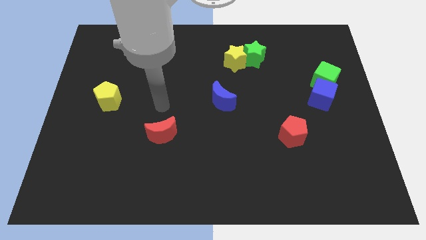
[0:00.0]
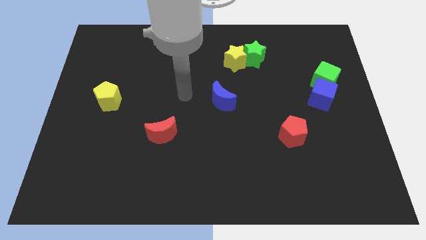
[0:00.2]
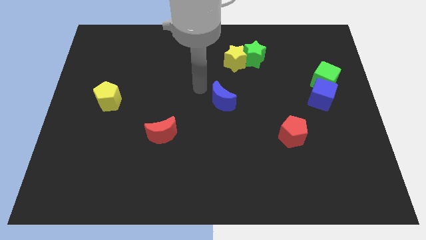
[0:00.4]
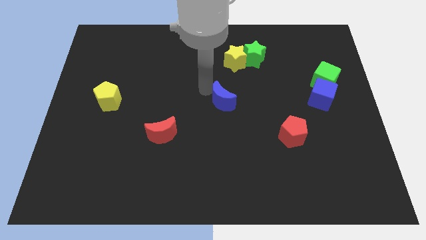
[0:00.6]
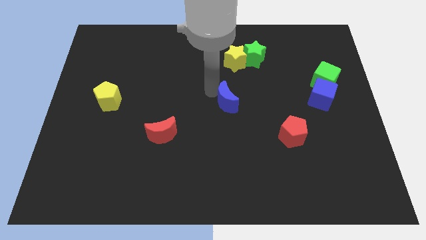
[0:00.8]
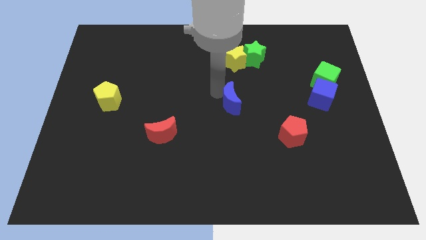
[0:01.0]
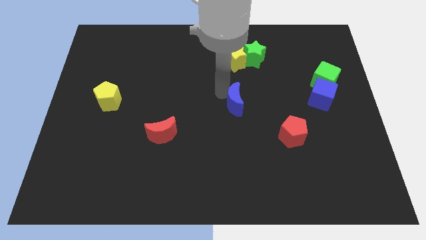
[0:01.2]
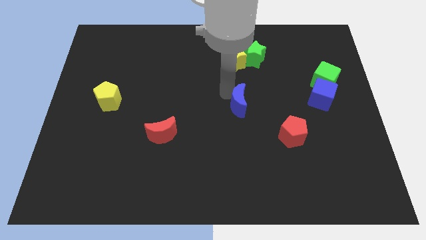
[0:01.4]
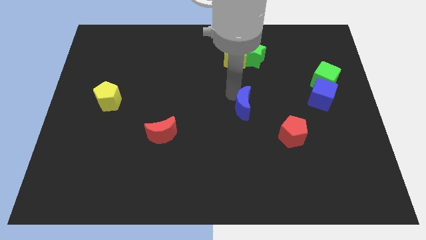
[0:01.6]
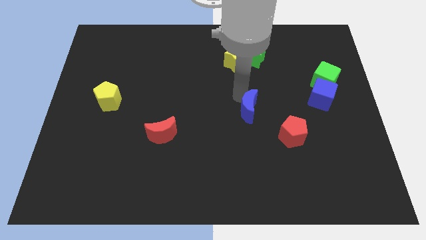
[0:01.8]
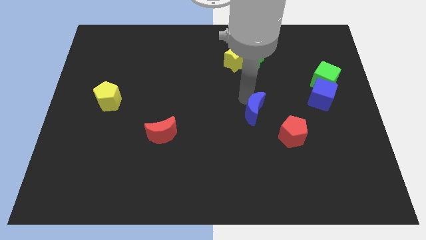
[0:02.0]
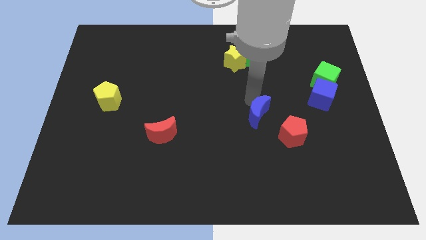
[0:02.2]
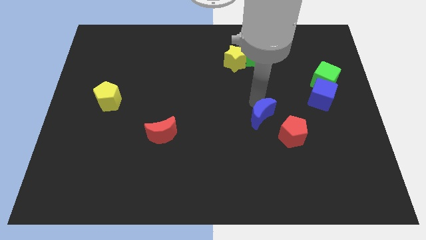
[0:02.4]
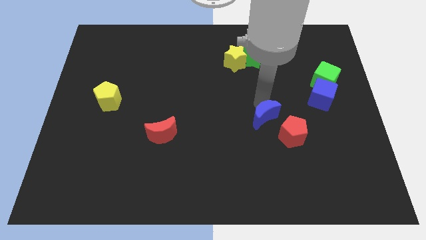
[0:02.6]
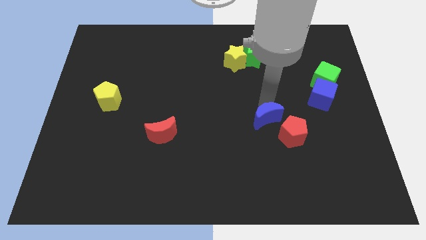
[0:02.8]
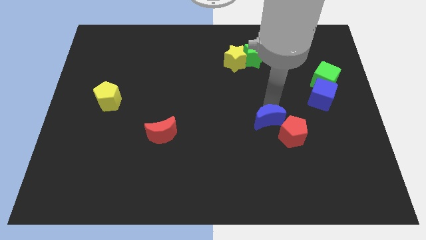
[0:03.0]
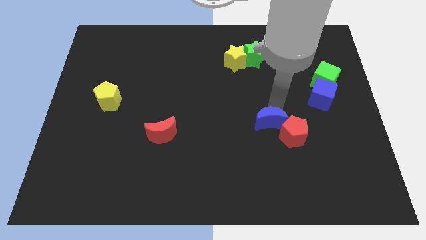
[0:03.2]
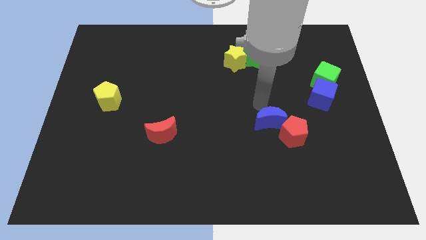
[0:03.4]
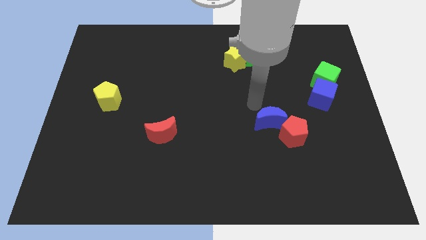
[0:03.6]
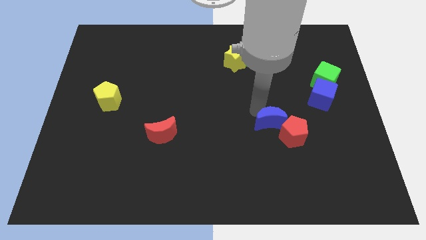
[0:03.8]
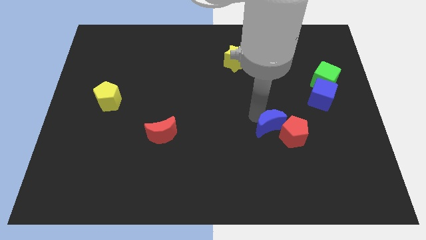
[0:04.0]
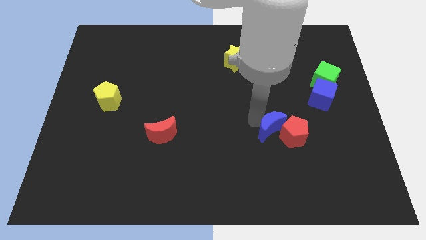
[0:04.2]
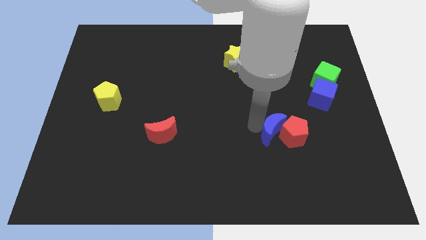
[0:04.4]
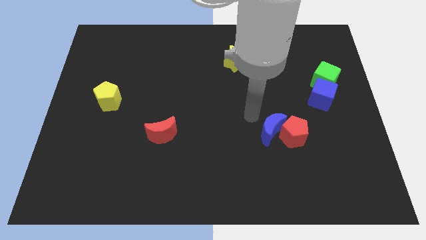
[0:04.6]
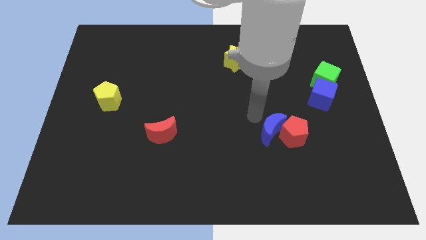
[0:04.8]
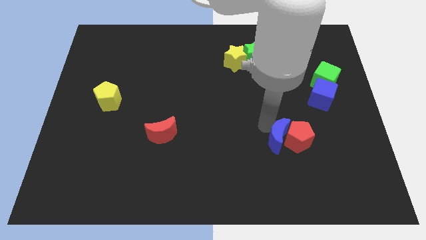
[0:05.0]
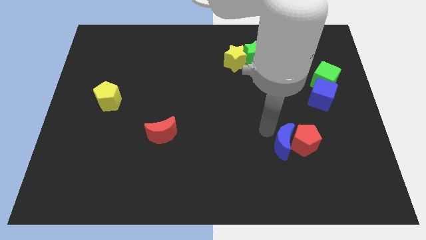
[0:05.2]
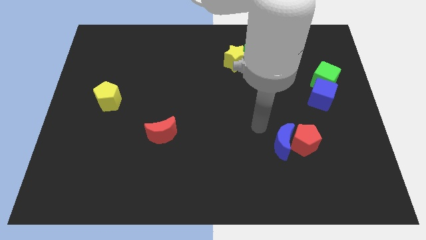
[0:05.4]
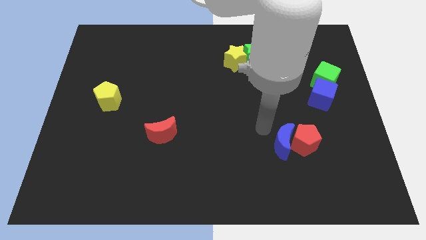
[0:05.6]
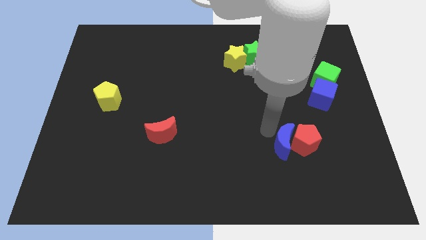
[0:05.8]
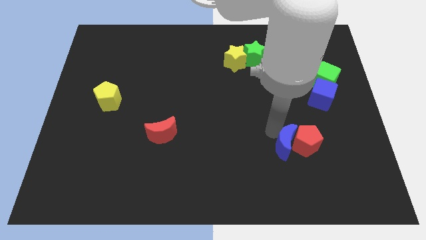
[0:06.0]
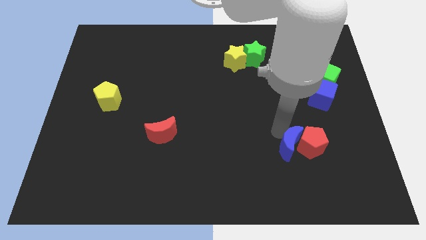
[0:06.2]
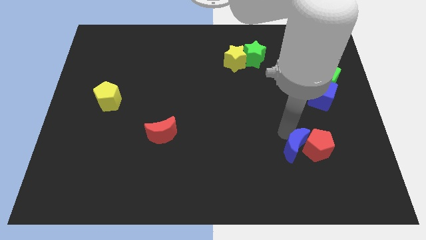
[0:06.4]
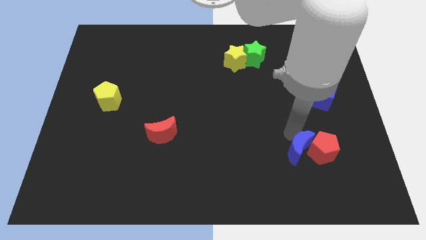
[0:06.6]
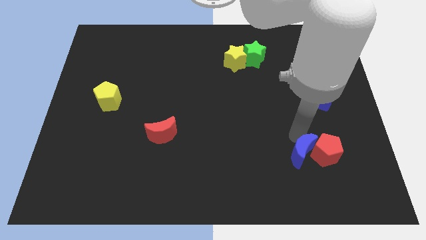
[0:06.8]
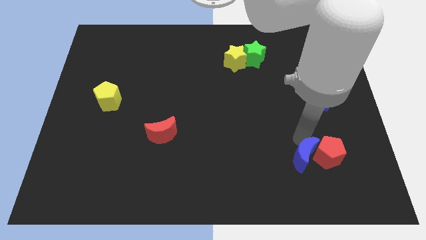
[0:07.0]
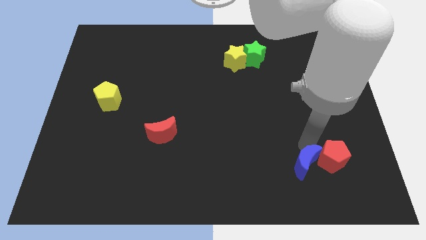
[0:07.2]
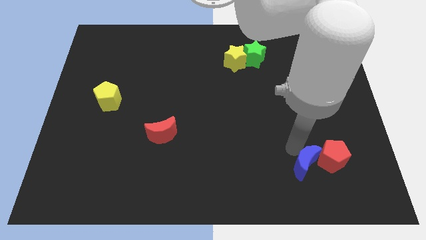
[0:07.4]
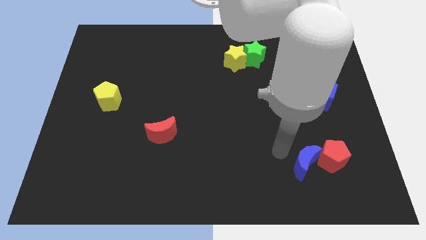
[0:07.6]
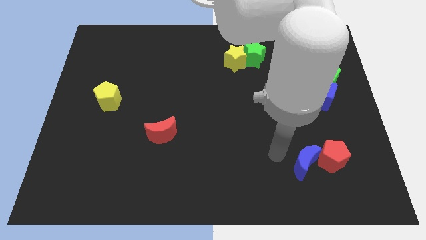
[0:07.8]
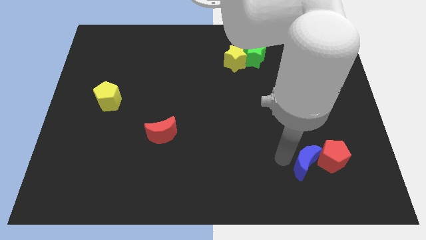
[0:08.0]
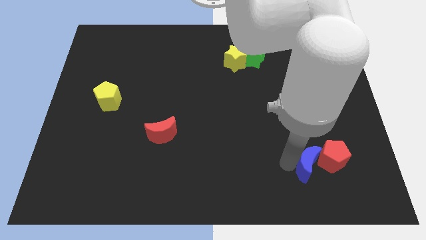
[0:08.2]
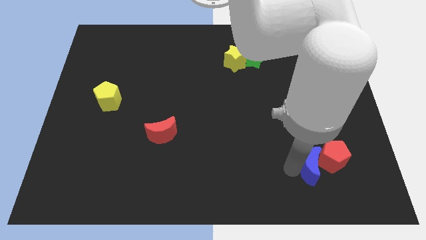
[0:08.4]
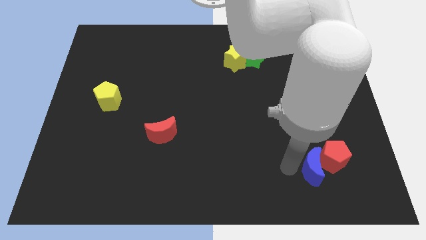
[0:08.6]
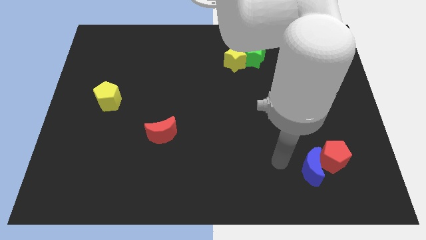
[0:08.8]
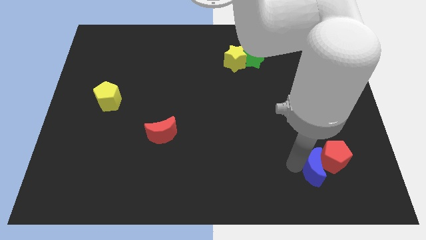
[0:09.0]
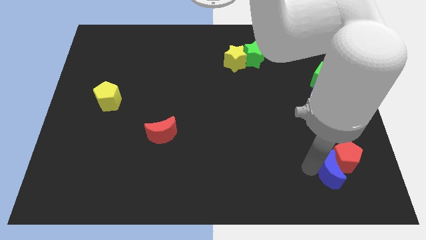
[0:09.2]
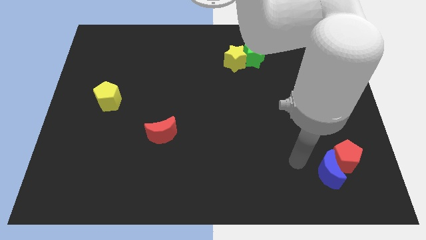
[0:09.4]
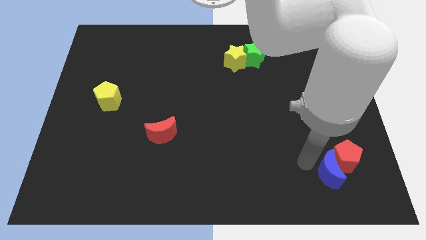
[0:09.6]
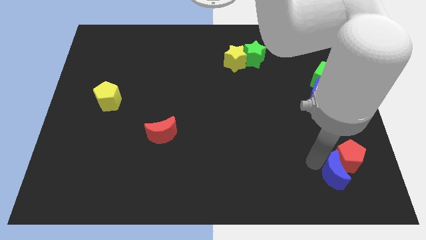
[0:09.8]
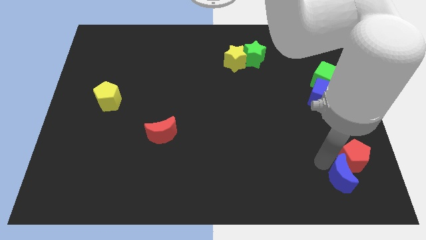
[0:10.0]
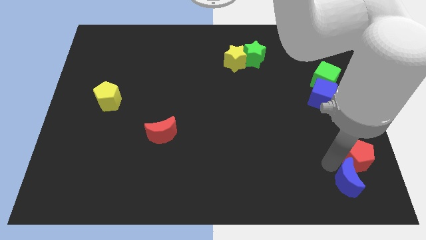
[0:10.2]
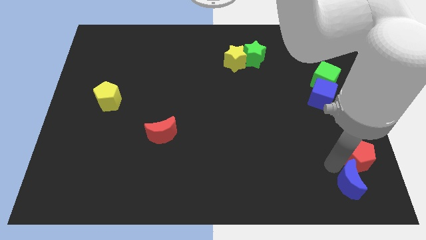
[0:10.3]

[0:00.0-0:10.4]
slide the blue moon to the bottom right

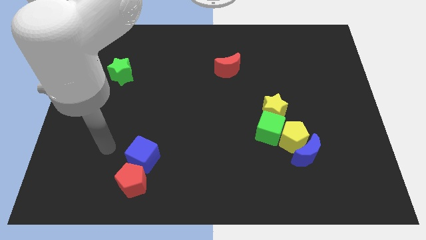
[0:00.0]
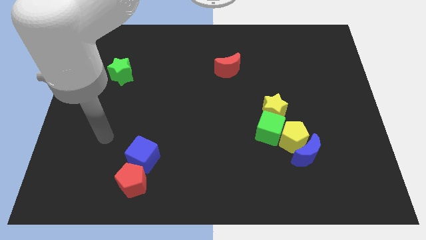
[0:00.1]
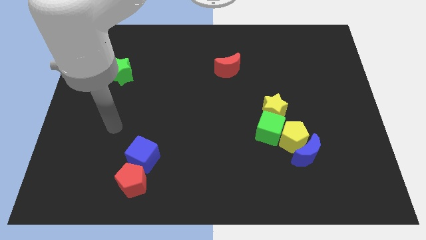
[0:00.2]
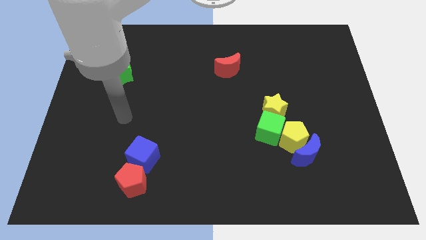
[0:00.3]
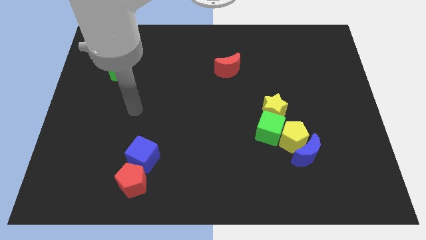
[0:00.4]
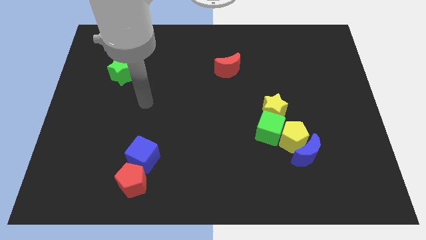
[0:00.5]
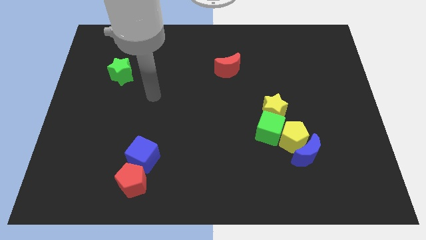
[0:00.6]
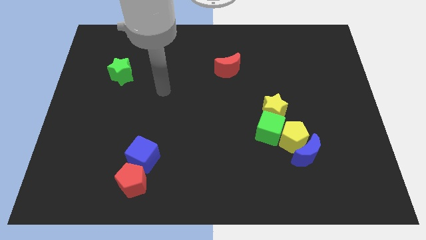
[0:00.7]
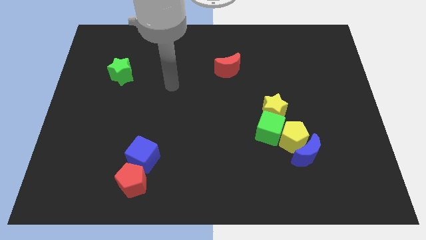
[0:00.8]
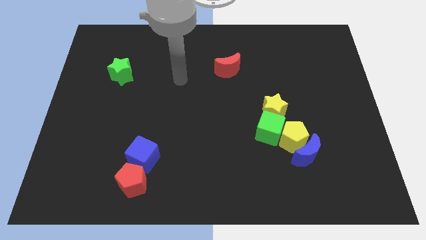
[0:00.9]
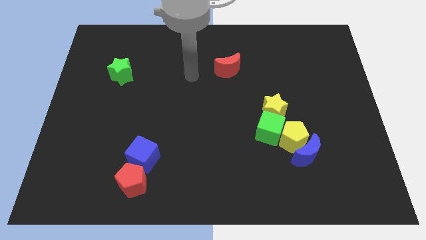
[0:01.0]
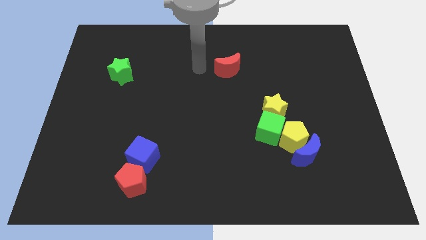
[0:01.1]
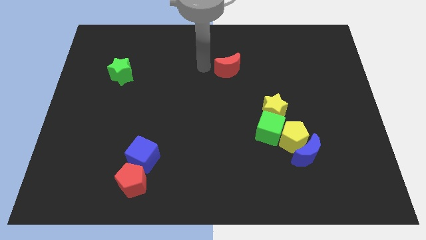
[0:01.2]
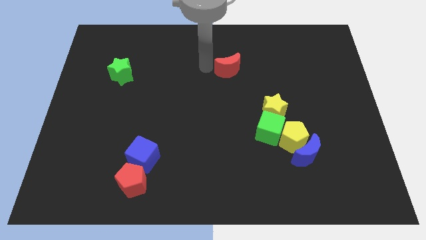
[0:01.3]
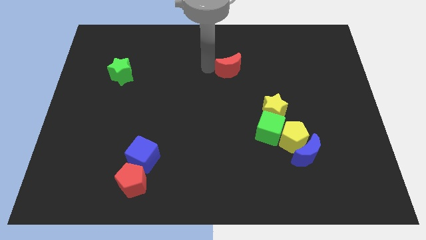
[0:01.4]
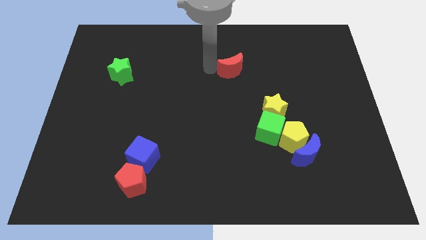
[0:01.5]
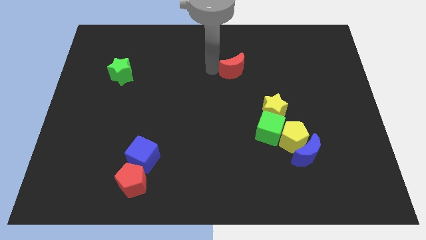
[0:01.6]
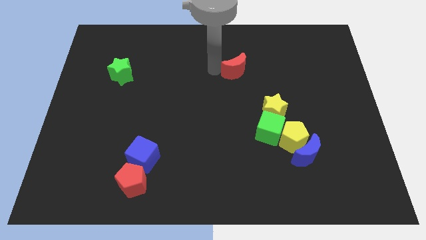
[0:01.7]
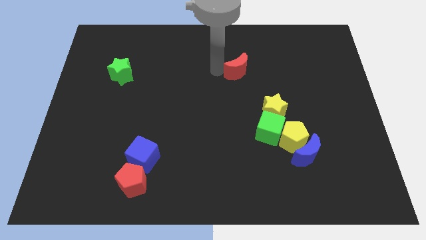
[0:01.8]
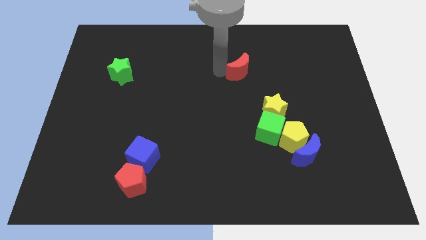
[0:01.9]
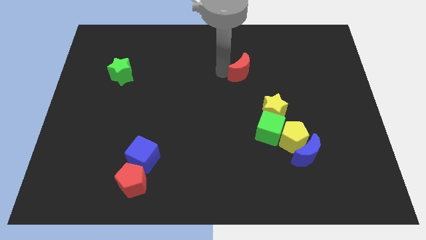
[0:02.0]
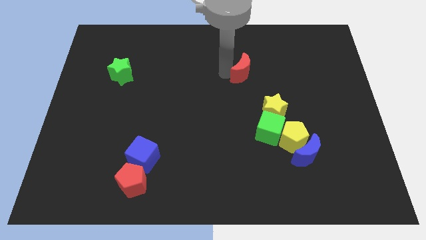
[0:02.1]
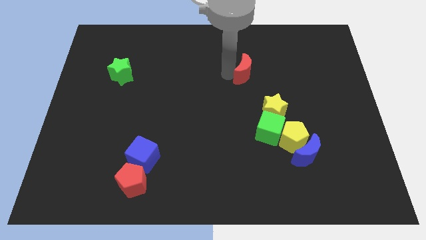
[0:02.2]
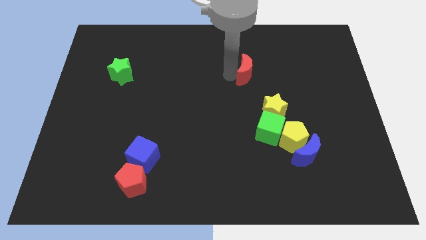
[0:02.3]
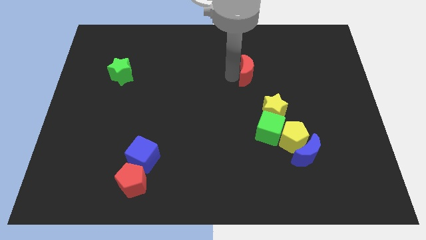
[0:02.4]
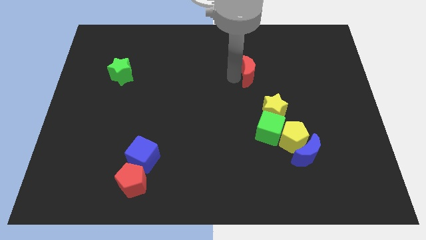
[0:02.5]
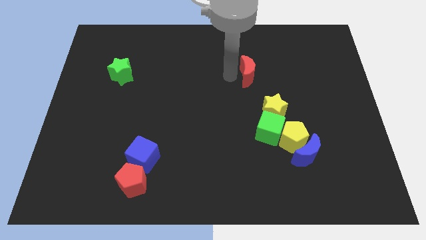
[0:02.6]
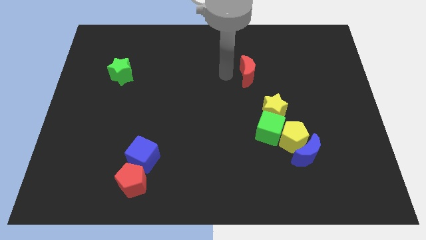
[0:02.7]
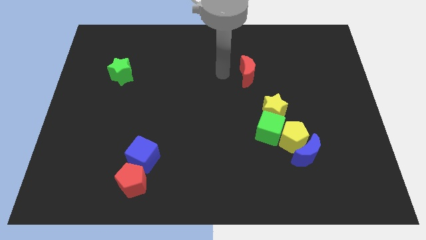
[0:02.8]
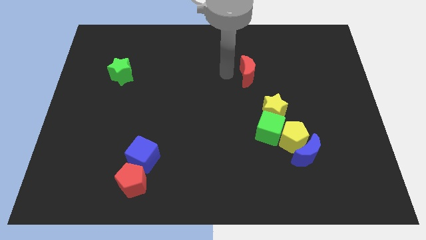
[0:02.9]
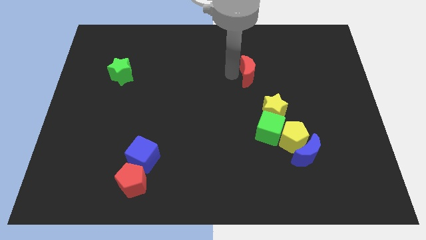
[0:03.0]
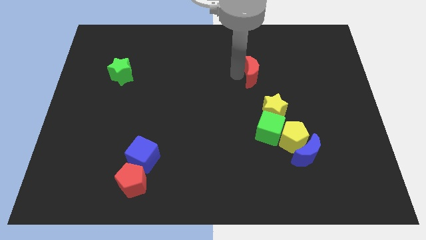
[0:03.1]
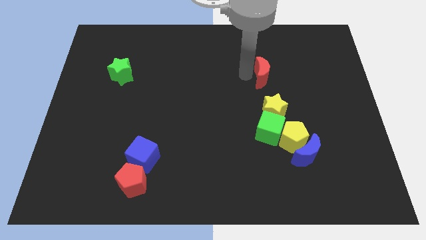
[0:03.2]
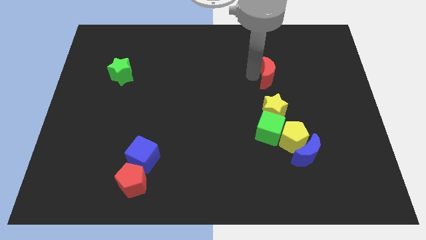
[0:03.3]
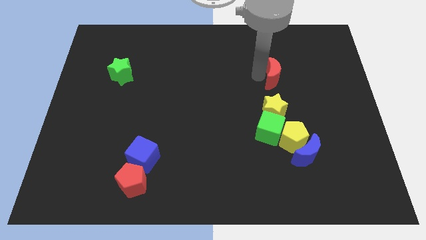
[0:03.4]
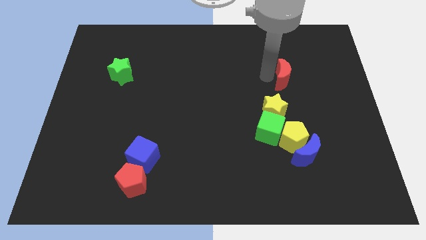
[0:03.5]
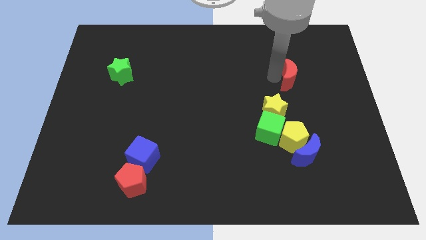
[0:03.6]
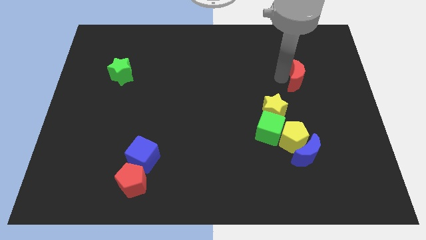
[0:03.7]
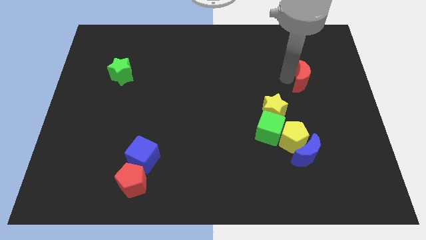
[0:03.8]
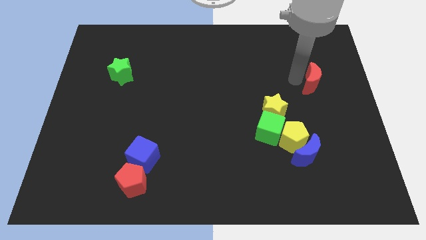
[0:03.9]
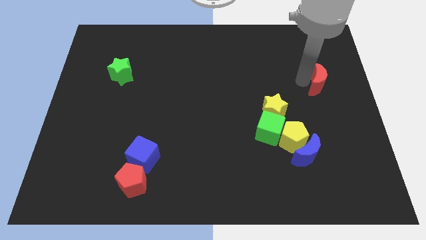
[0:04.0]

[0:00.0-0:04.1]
put the red moon to the center right
